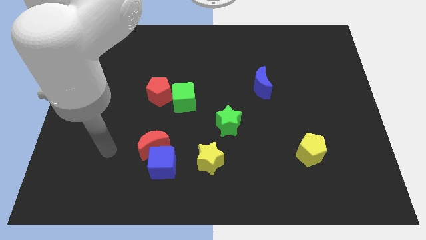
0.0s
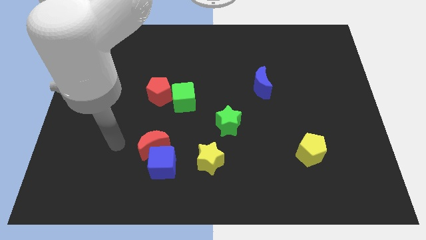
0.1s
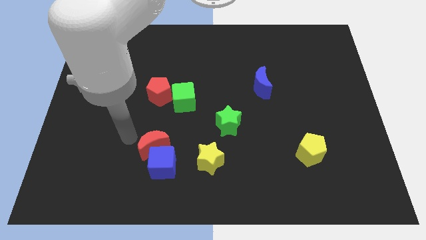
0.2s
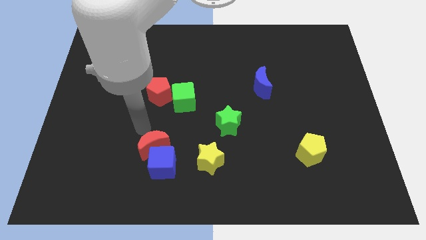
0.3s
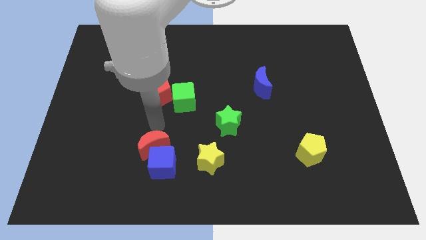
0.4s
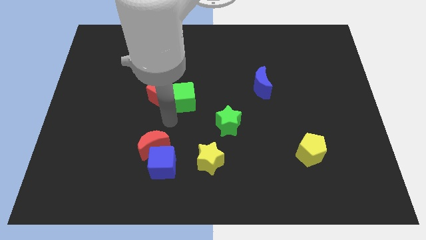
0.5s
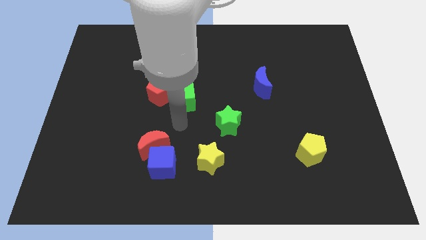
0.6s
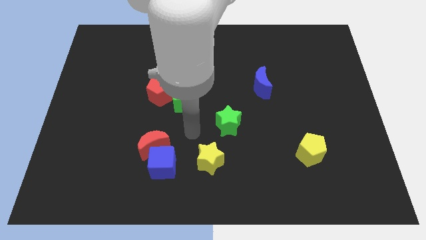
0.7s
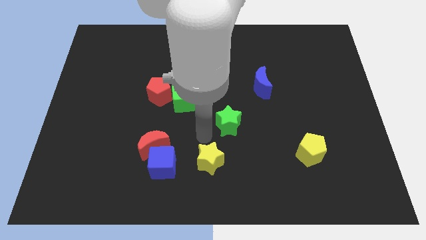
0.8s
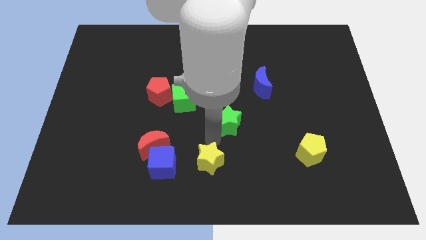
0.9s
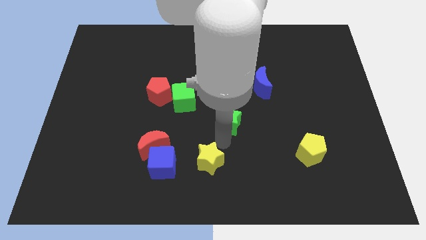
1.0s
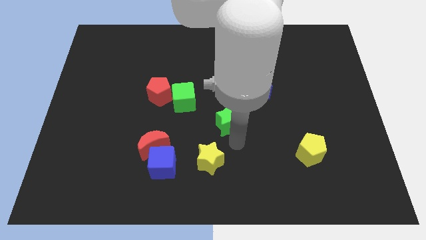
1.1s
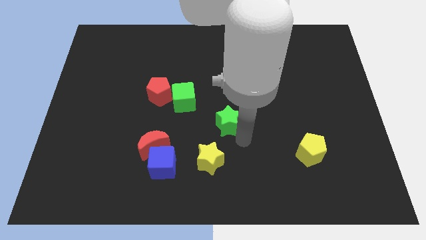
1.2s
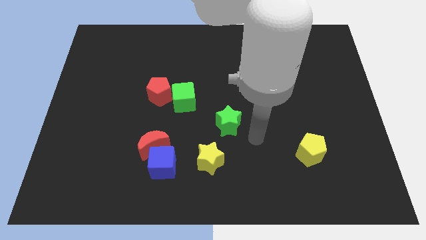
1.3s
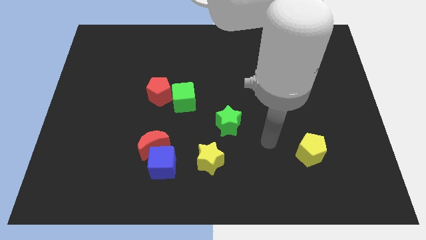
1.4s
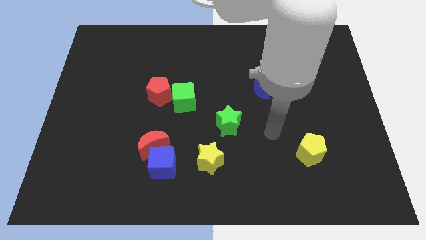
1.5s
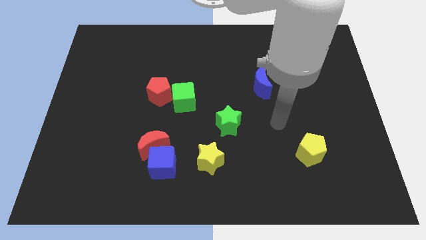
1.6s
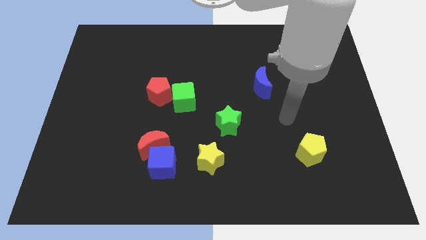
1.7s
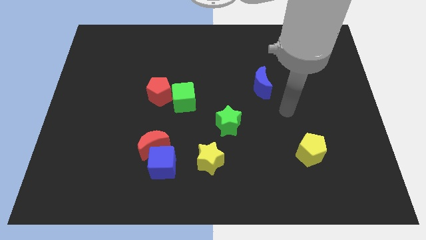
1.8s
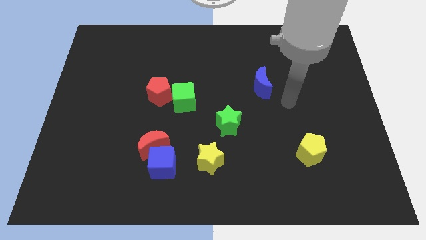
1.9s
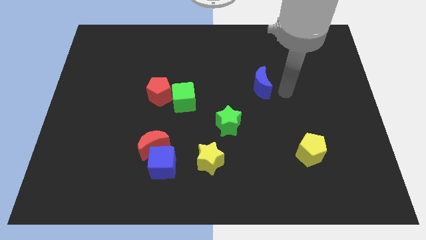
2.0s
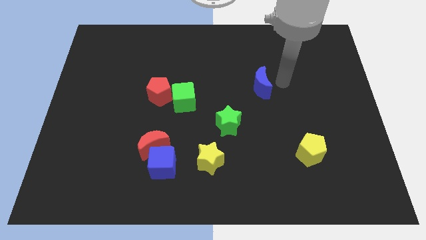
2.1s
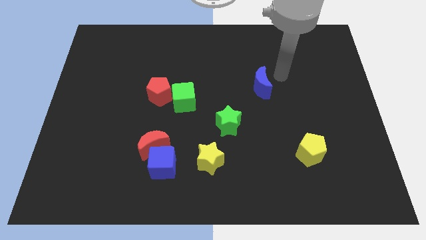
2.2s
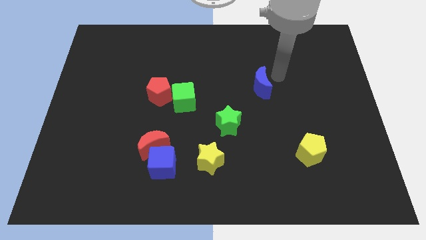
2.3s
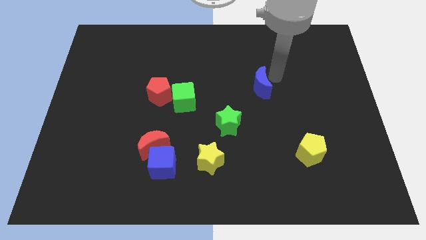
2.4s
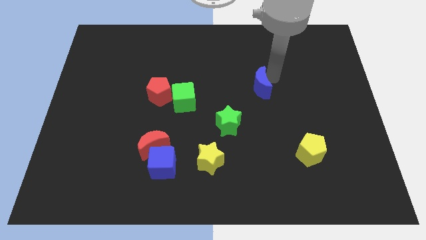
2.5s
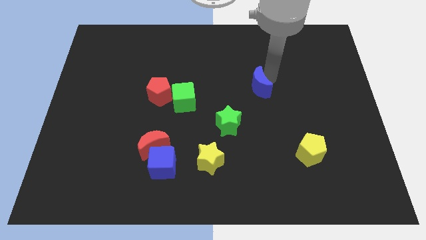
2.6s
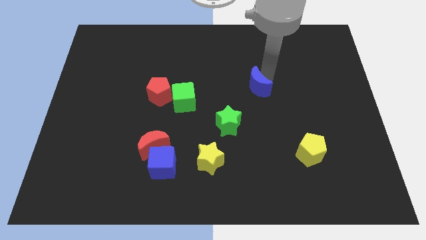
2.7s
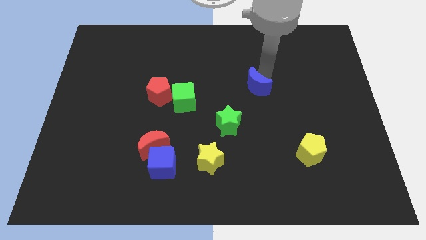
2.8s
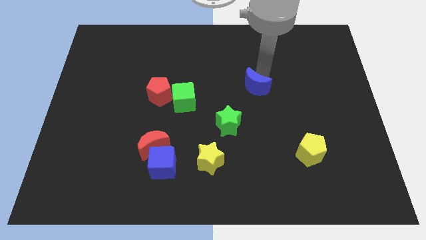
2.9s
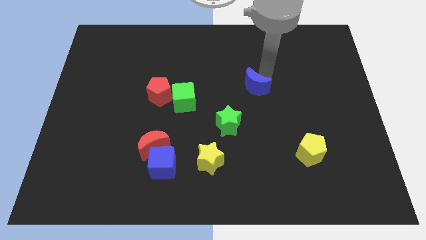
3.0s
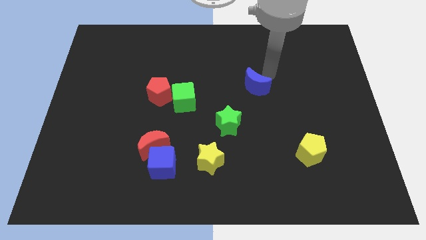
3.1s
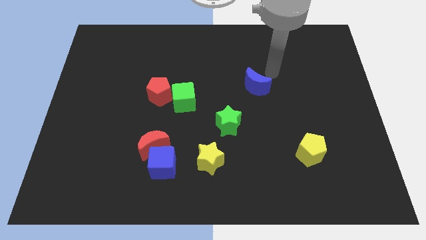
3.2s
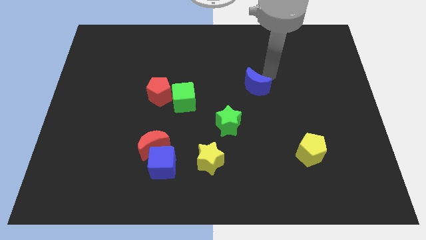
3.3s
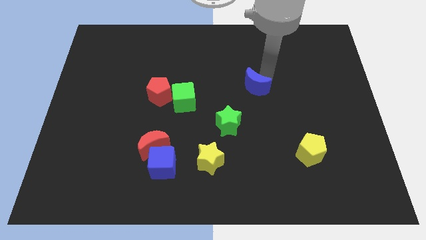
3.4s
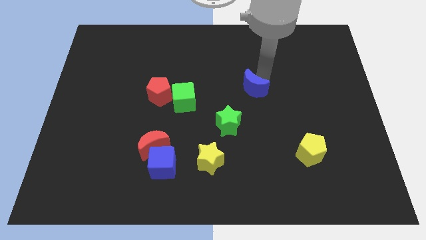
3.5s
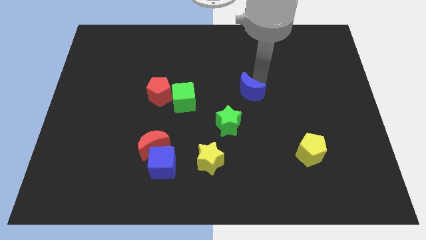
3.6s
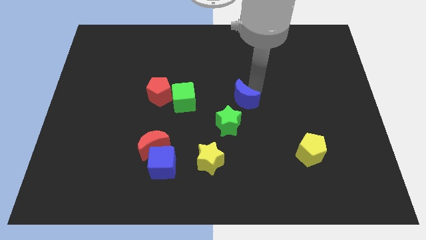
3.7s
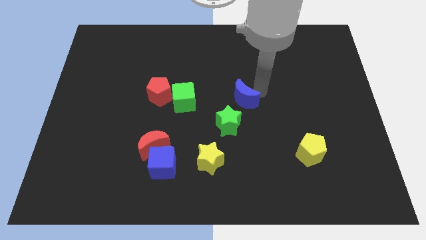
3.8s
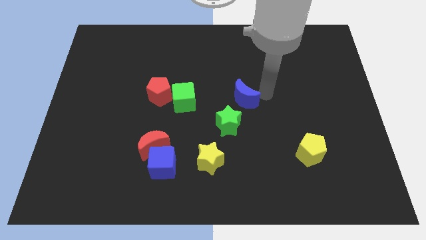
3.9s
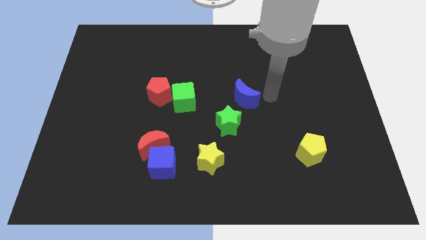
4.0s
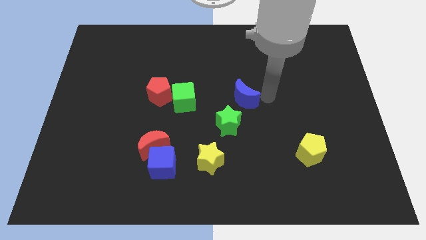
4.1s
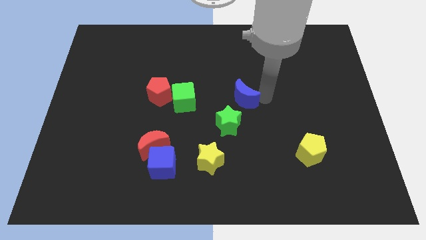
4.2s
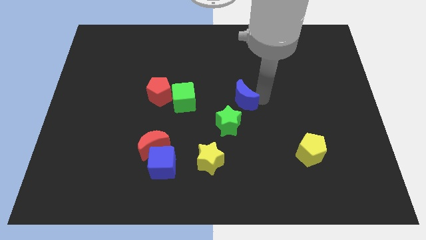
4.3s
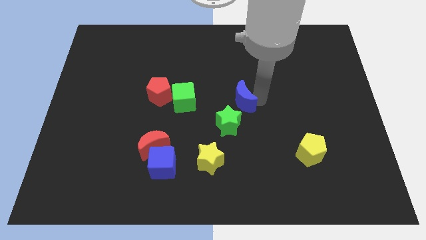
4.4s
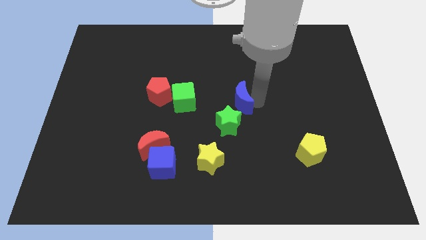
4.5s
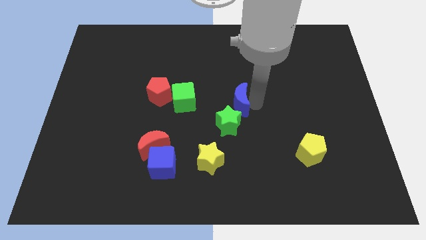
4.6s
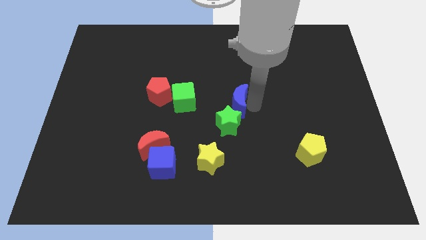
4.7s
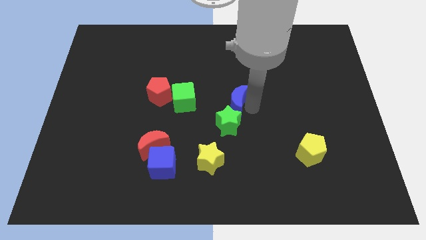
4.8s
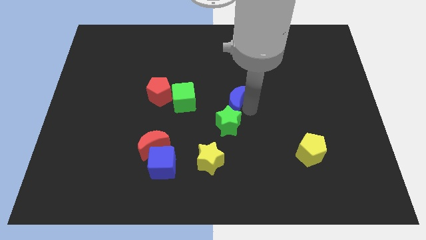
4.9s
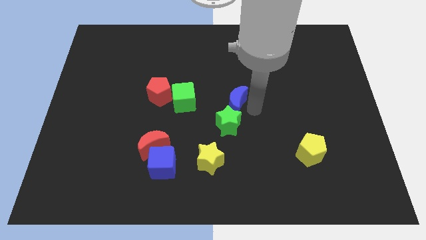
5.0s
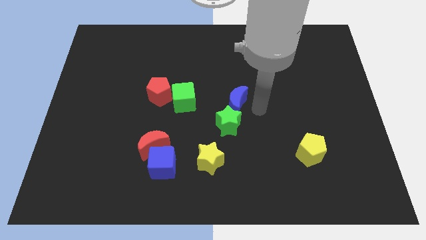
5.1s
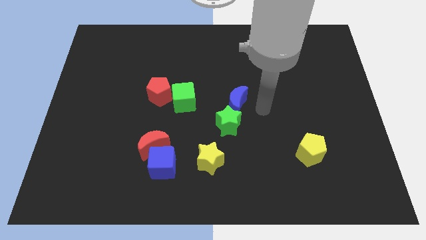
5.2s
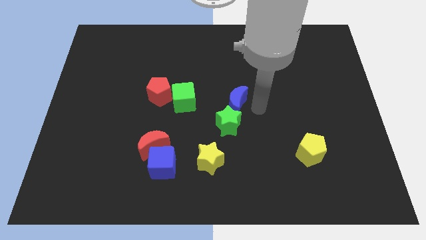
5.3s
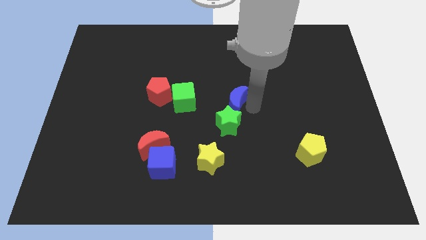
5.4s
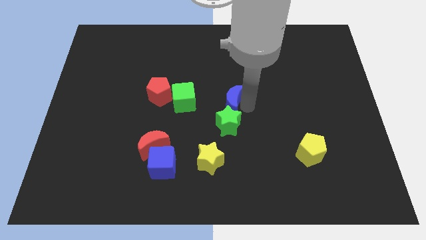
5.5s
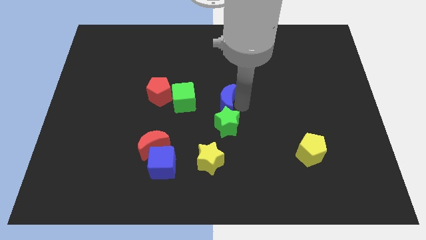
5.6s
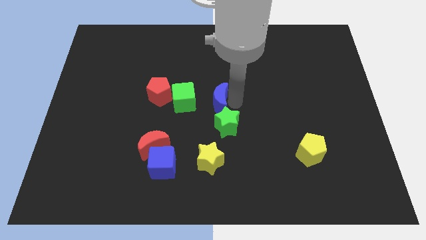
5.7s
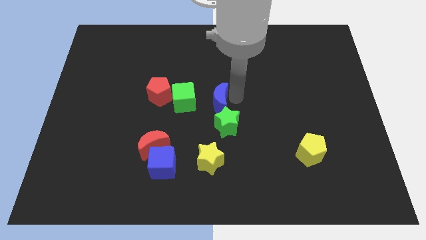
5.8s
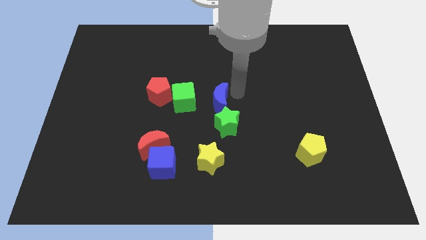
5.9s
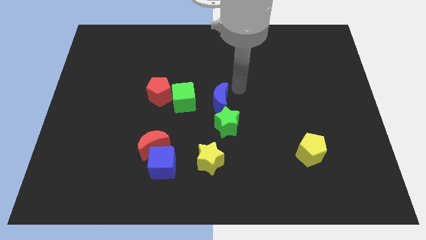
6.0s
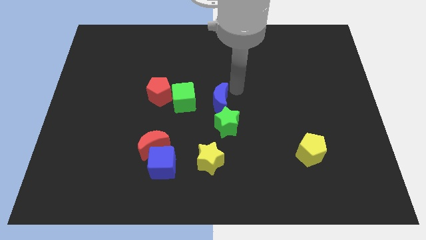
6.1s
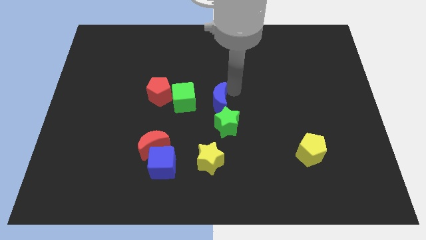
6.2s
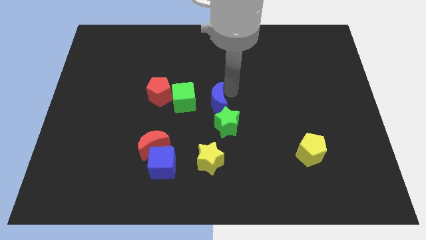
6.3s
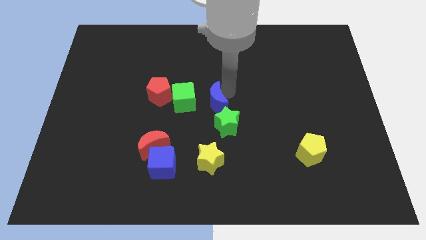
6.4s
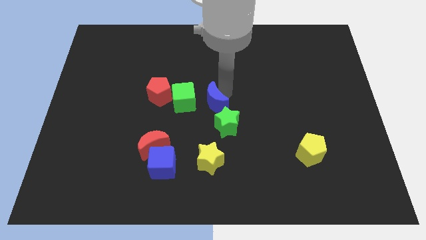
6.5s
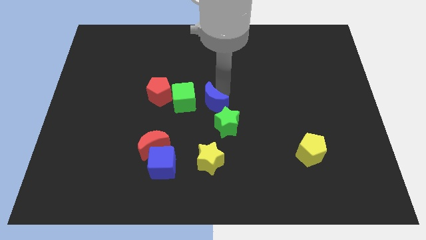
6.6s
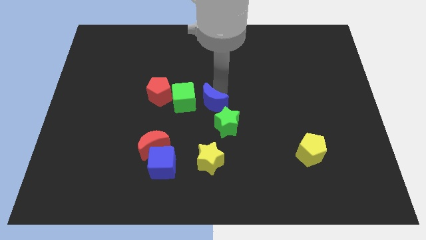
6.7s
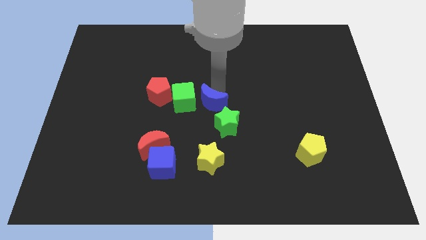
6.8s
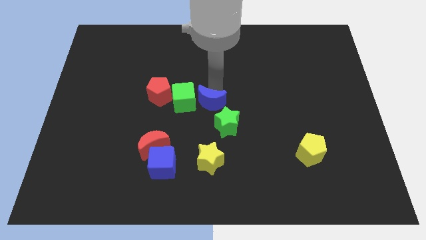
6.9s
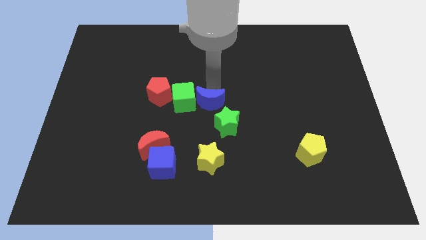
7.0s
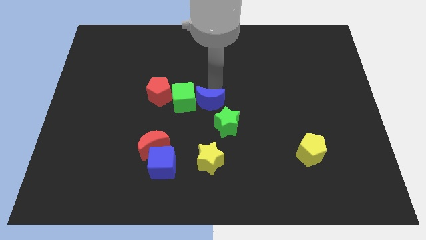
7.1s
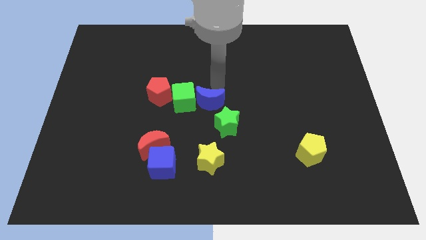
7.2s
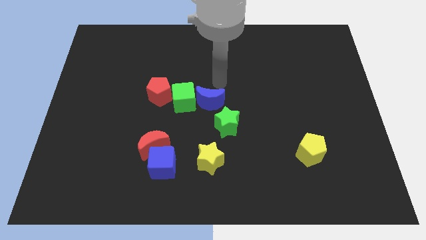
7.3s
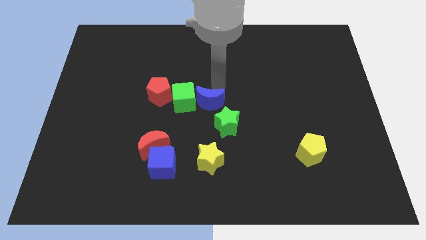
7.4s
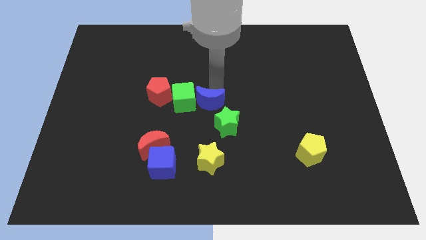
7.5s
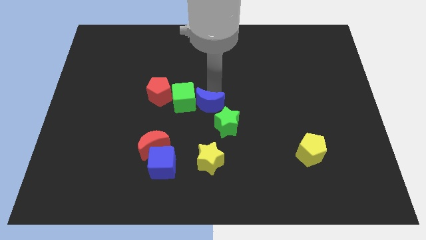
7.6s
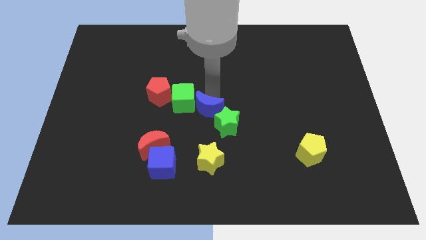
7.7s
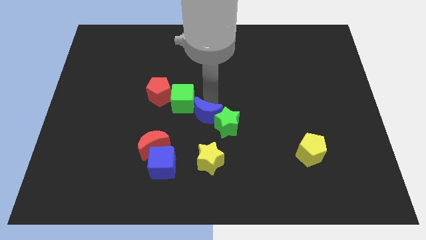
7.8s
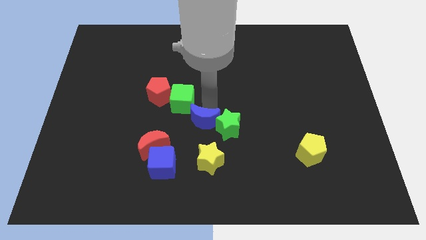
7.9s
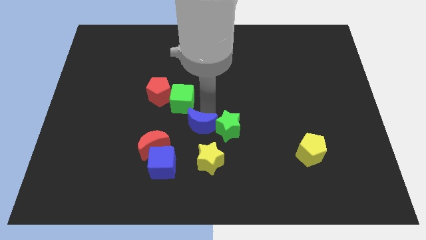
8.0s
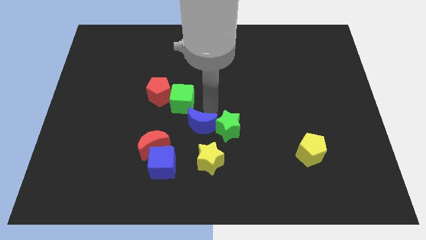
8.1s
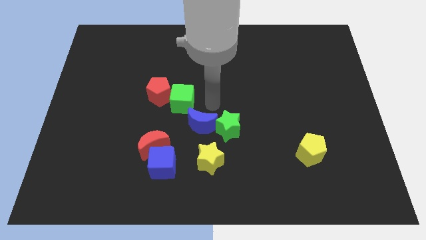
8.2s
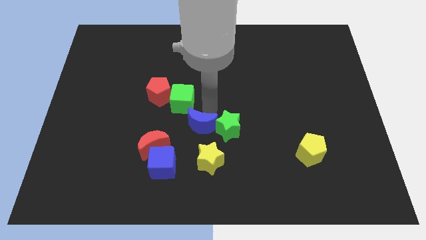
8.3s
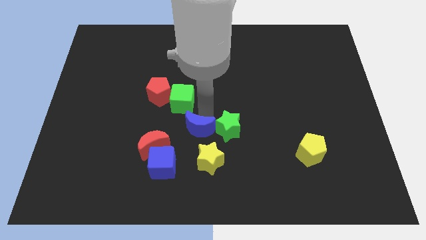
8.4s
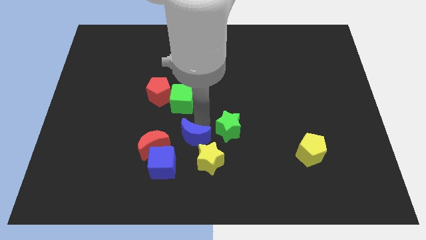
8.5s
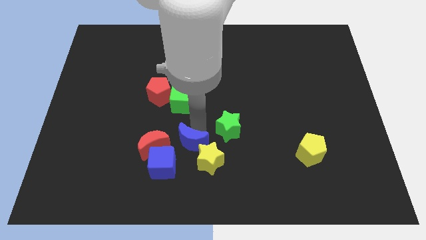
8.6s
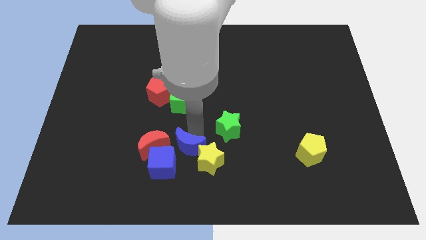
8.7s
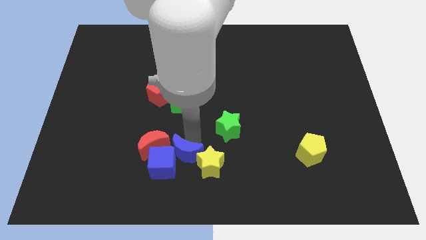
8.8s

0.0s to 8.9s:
push the blue moon to the bottom right side of the red moon
